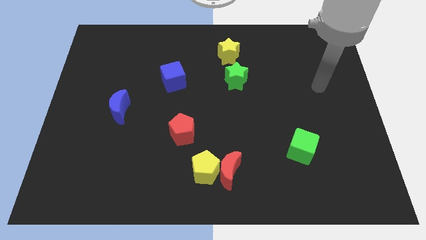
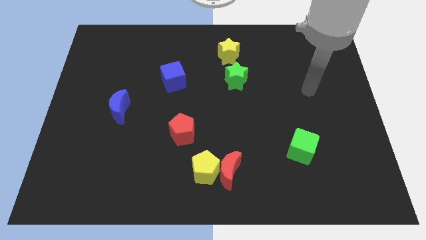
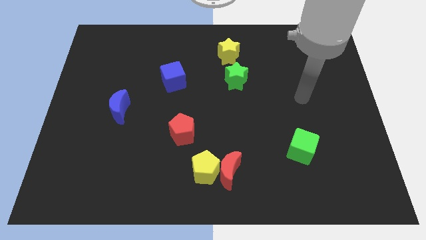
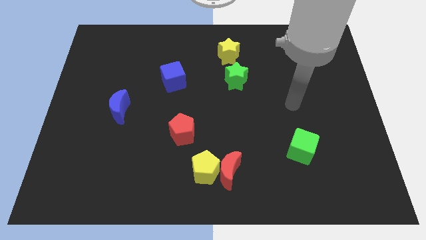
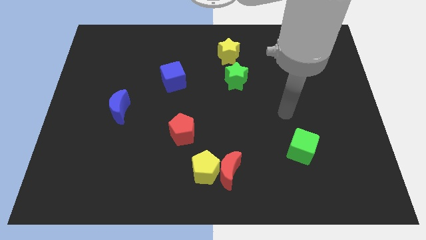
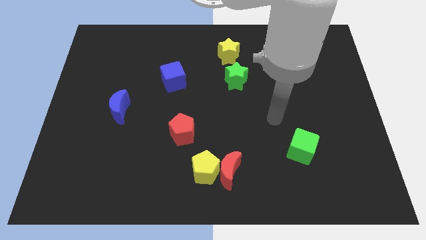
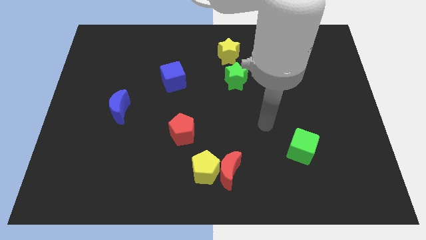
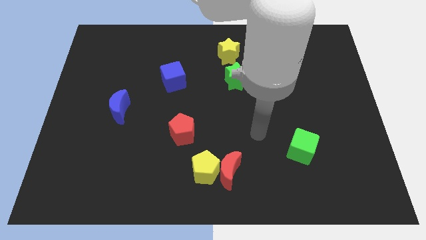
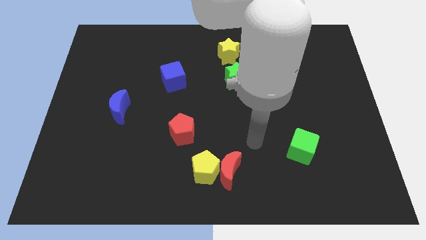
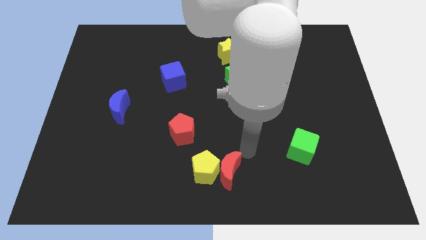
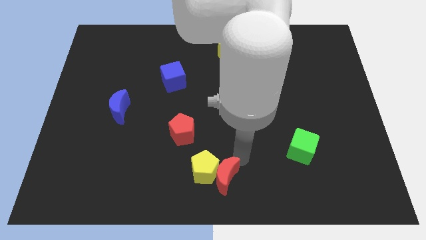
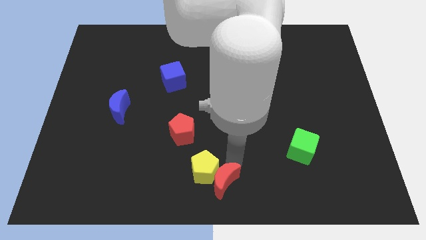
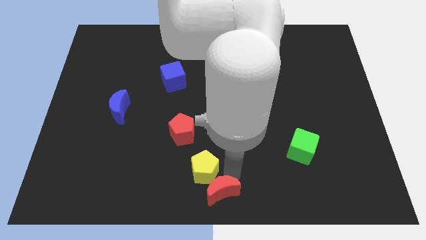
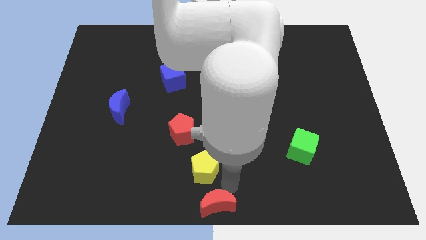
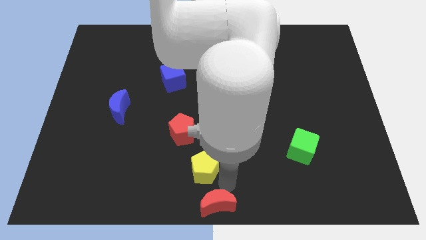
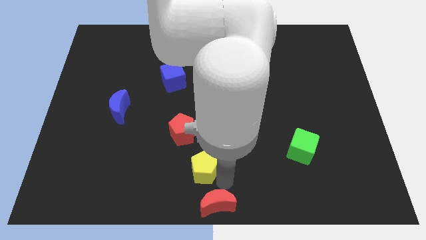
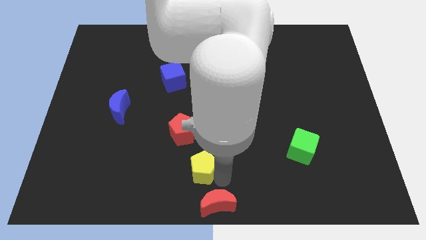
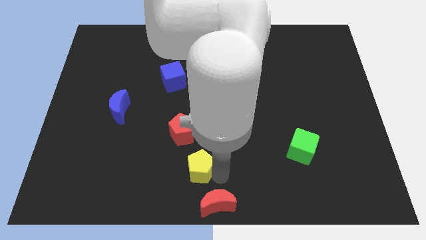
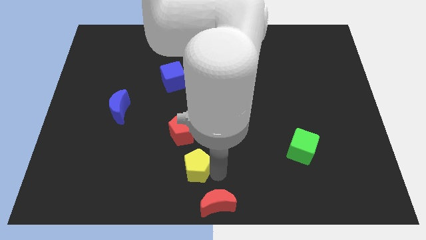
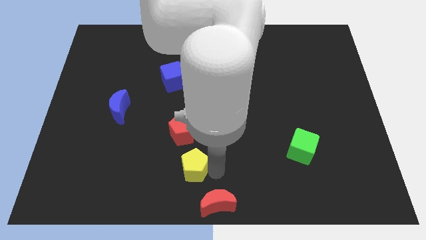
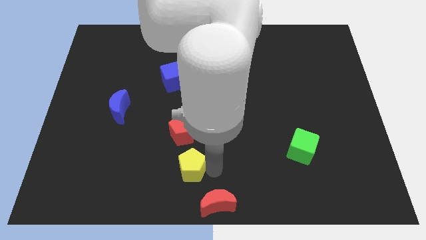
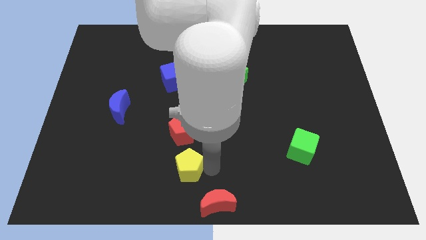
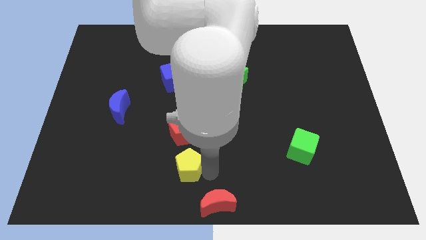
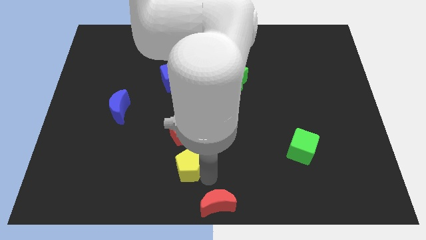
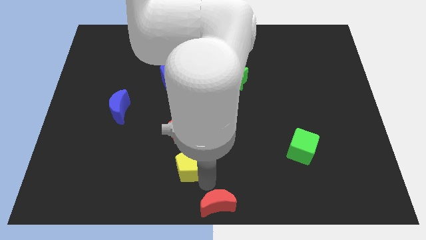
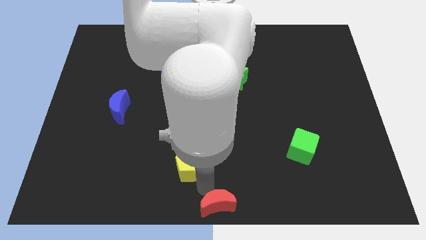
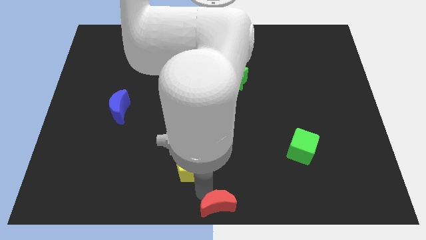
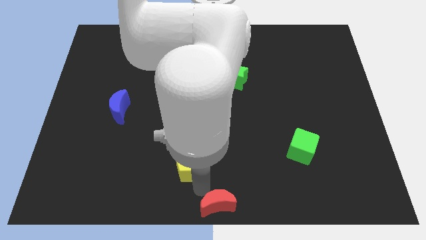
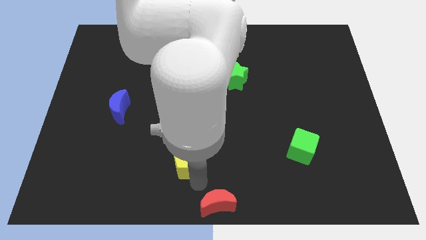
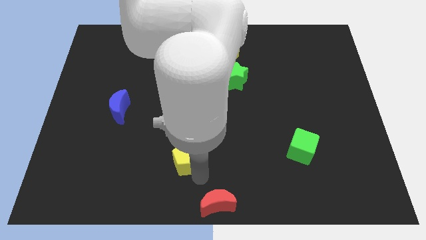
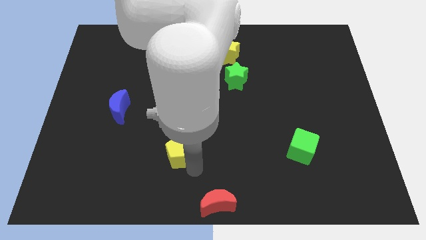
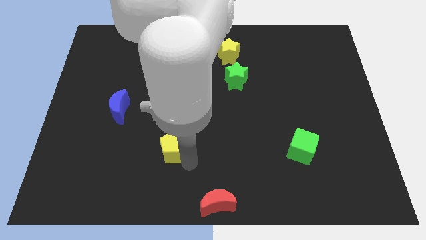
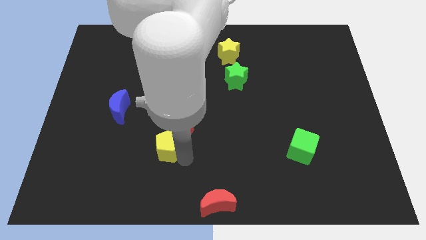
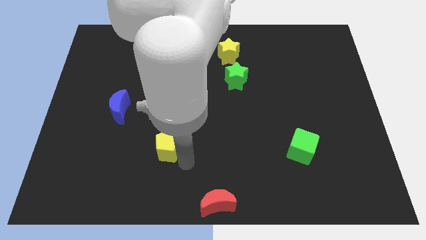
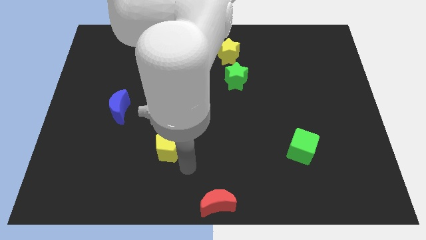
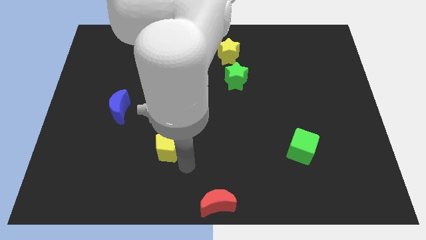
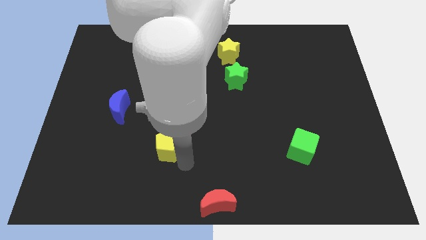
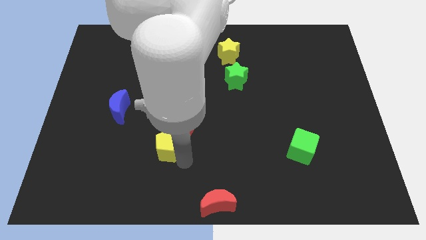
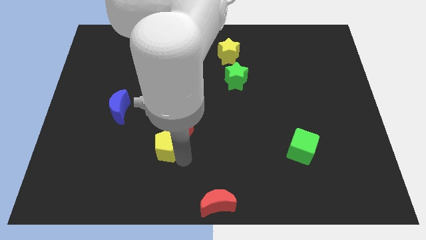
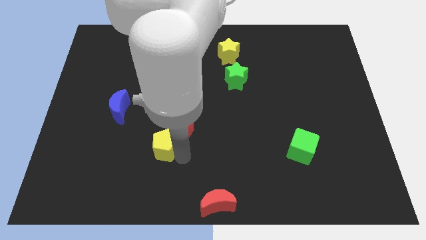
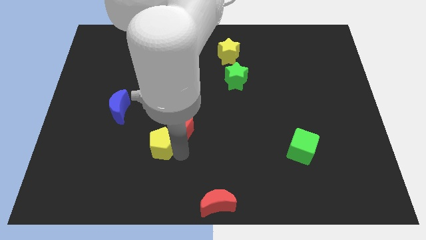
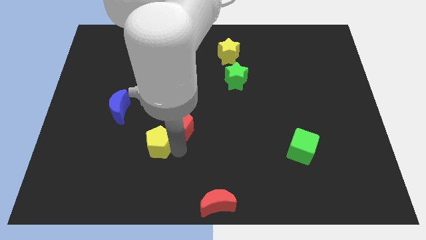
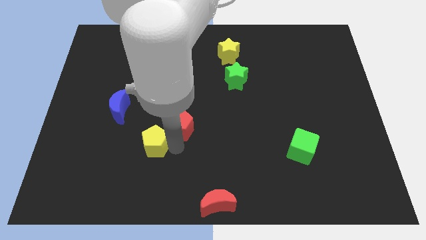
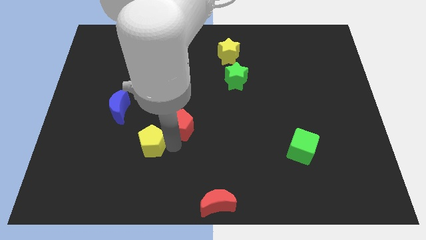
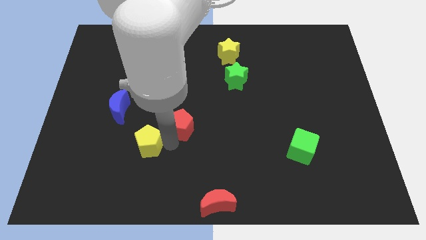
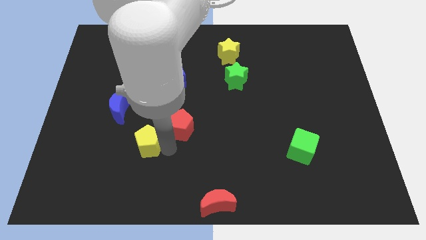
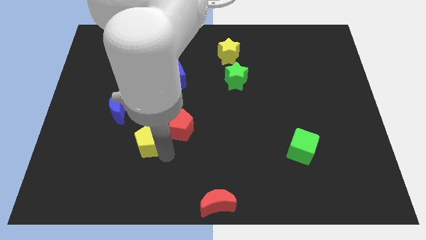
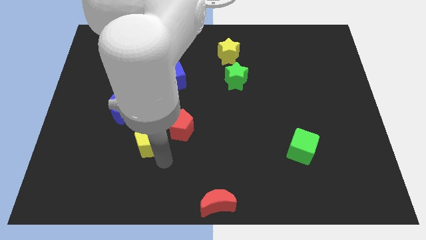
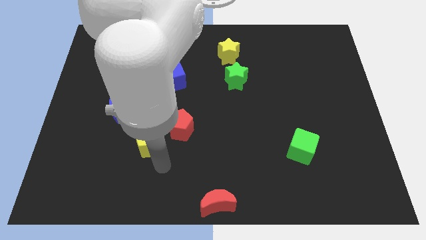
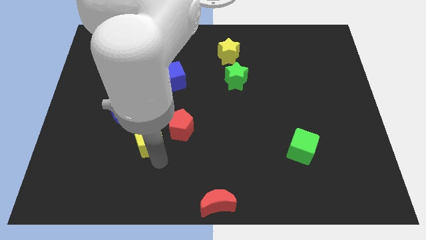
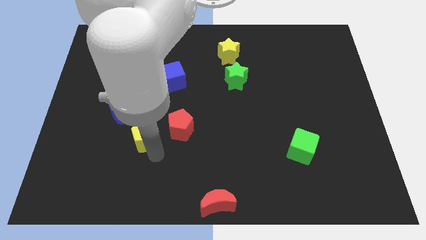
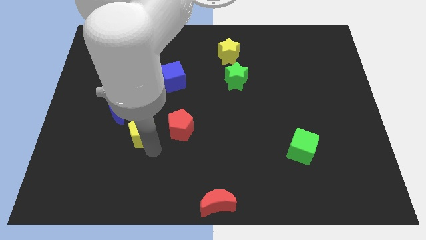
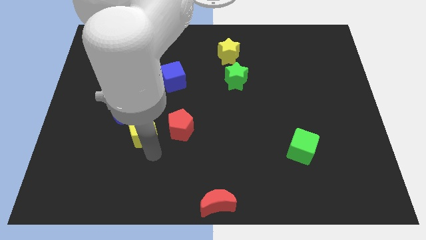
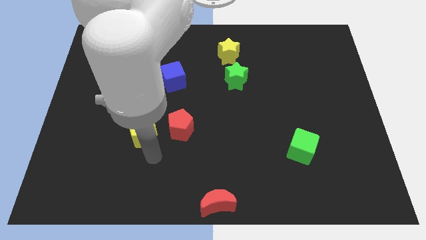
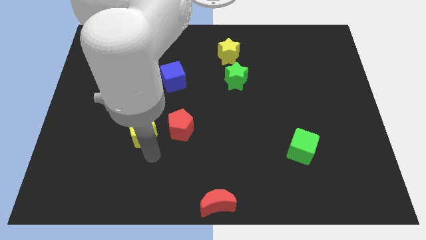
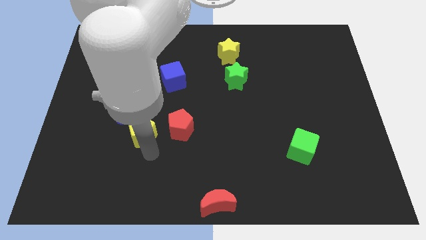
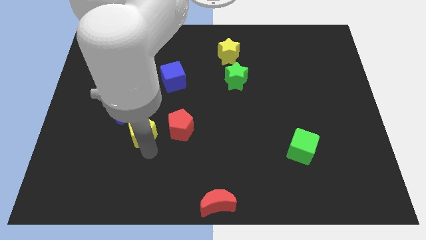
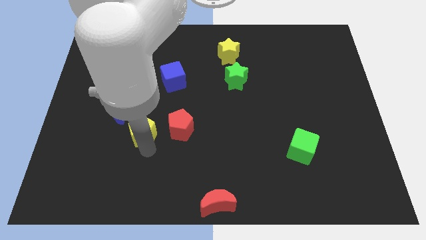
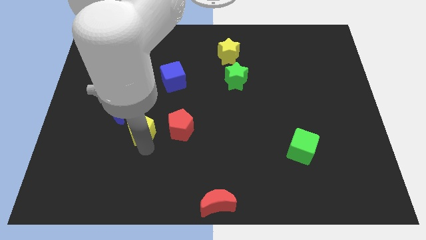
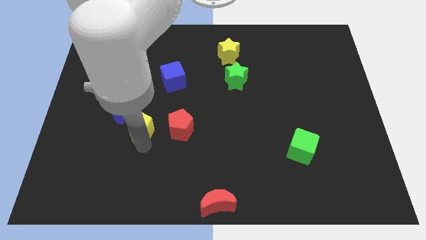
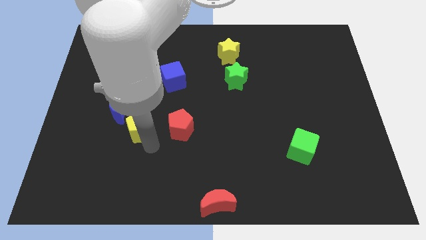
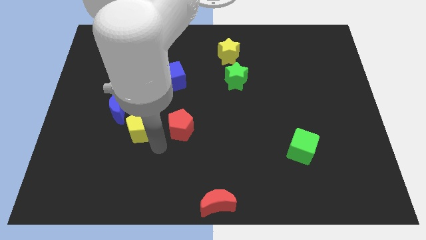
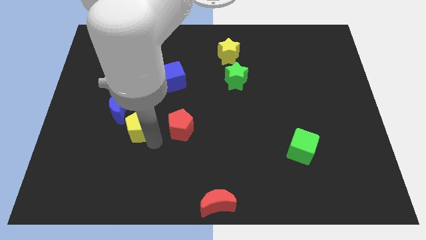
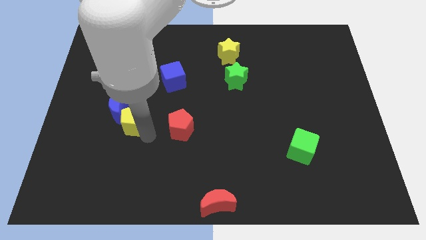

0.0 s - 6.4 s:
put the yellow pentagon towards the blue moon

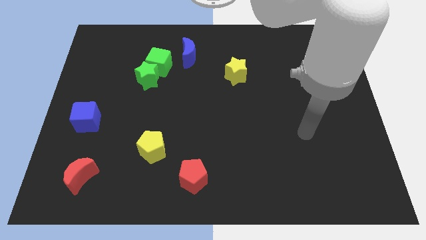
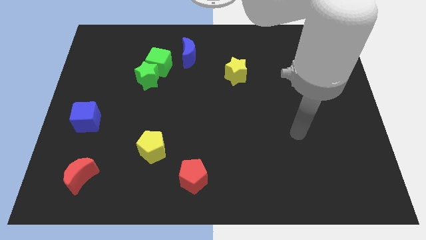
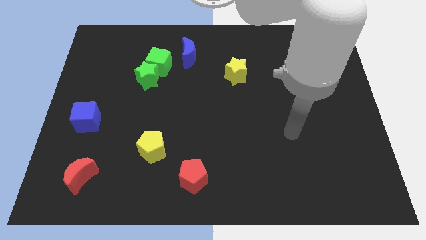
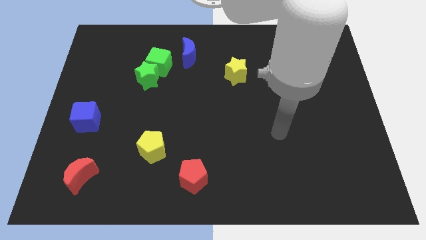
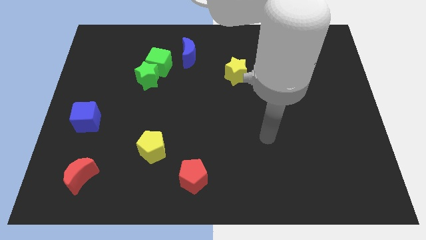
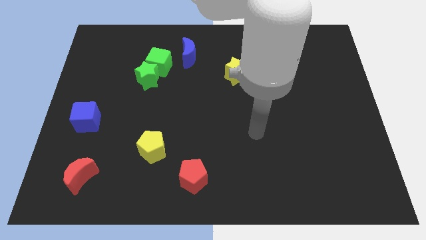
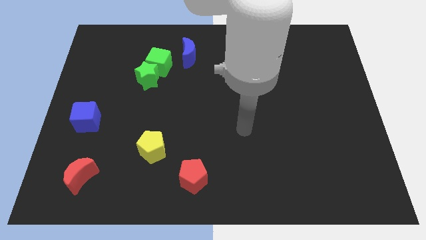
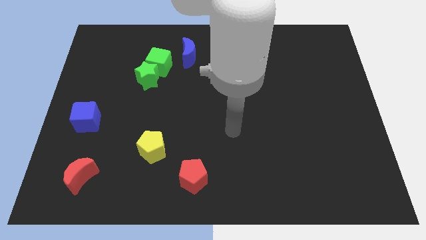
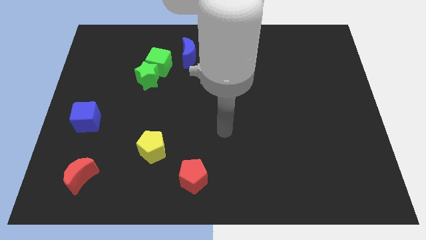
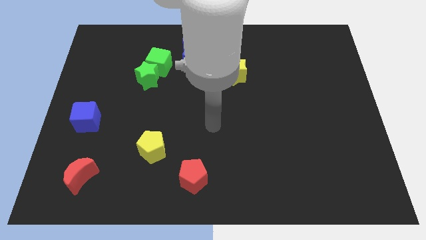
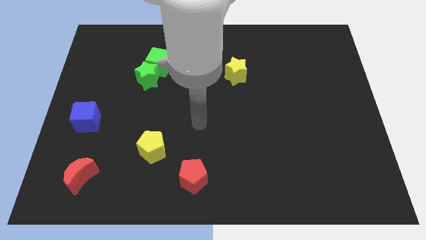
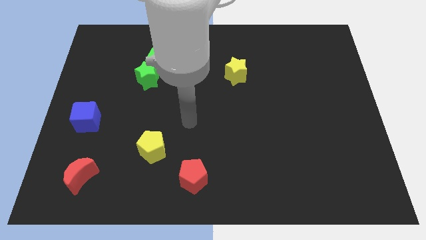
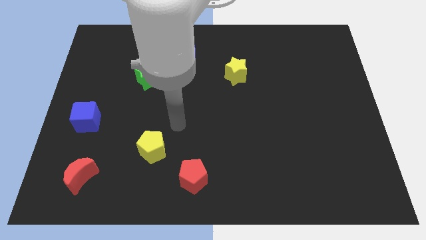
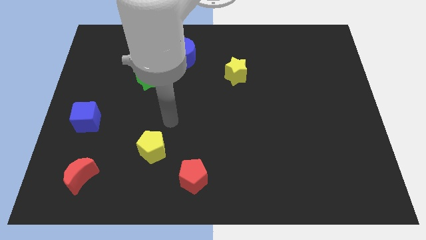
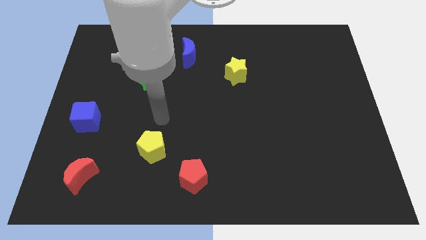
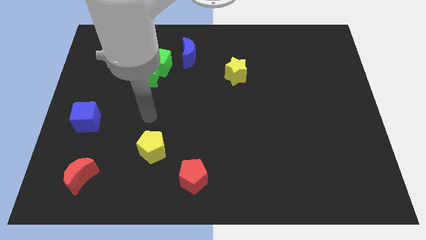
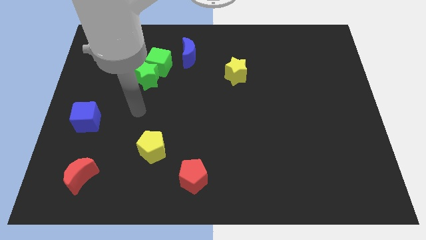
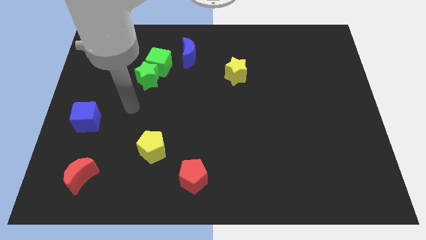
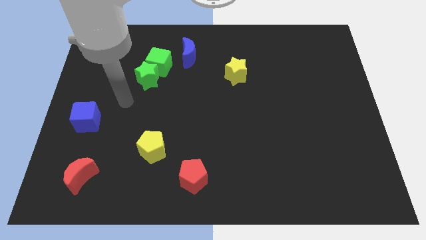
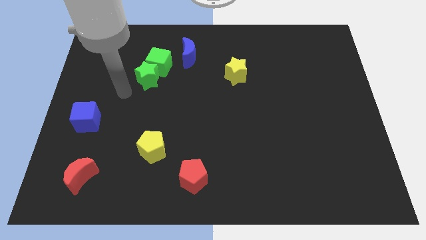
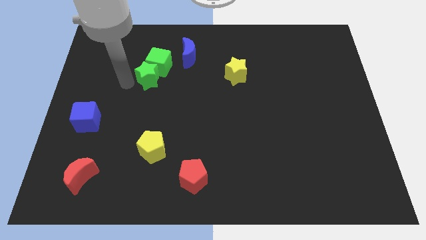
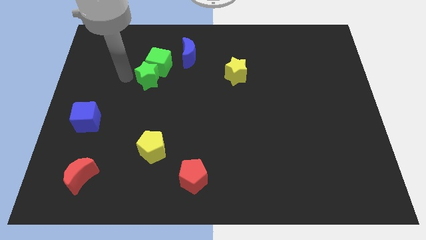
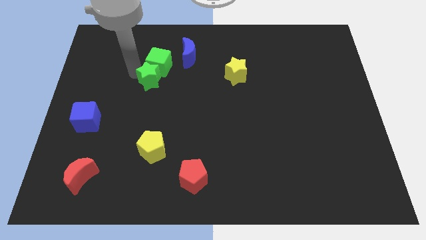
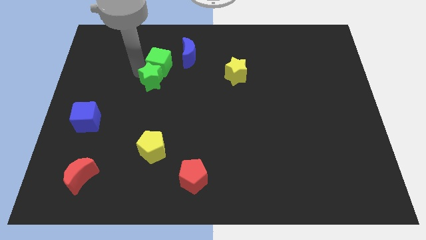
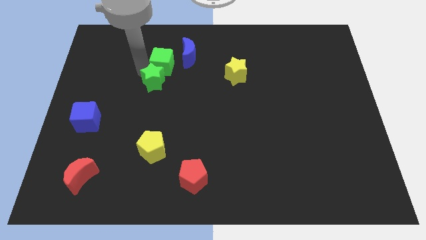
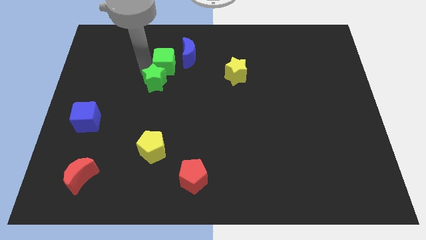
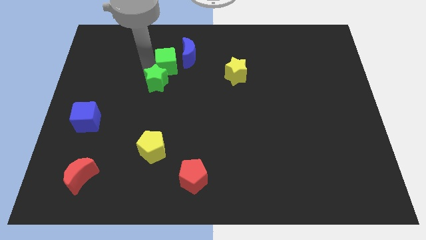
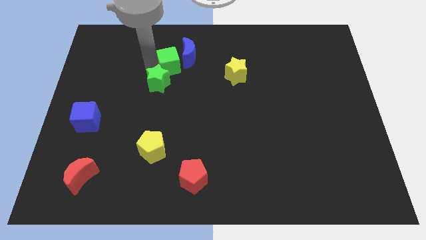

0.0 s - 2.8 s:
put the green cube close to the blue moon
